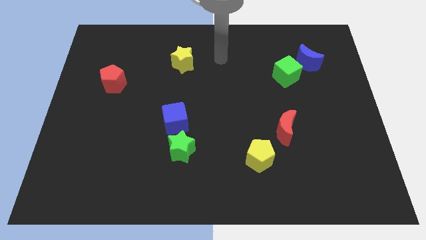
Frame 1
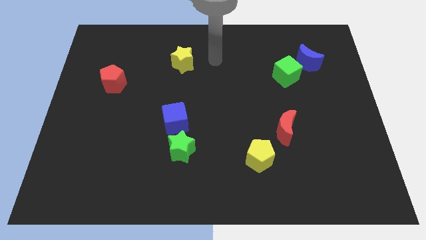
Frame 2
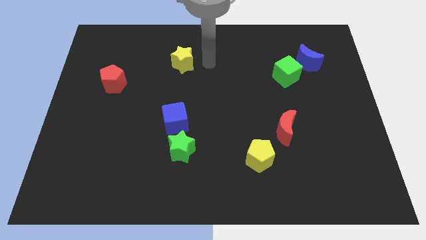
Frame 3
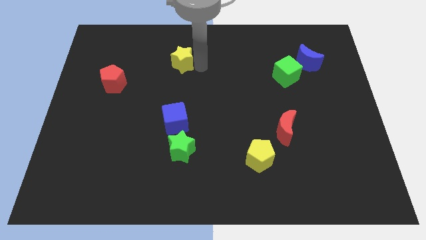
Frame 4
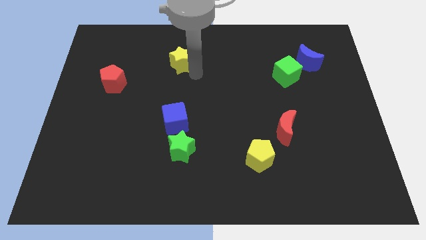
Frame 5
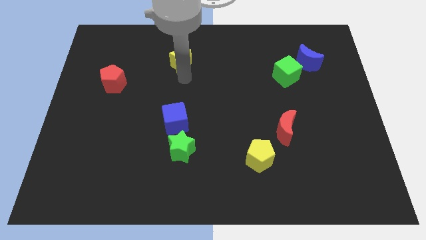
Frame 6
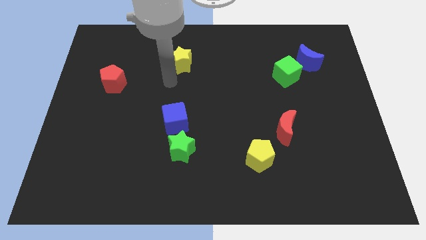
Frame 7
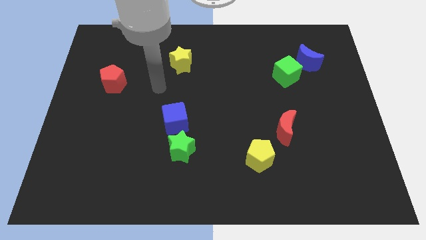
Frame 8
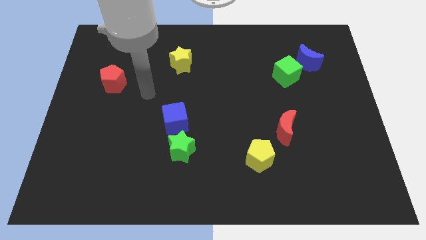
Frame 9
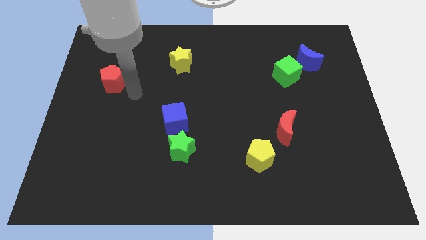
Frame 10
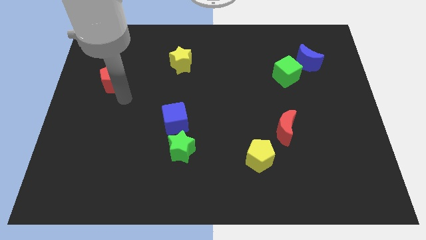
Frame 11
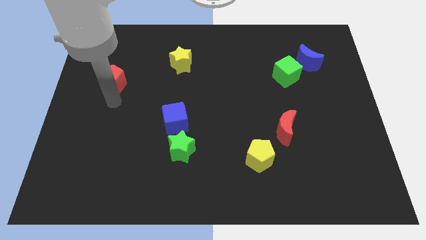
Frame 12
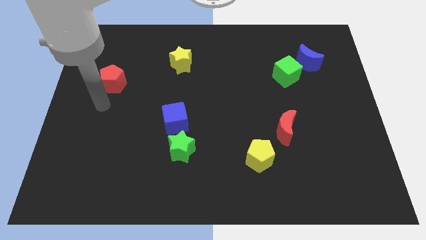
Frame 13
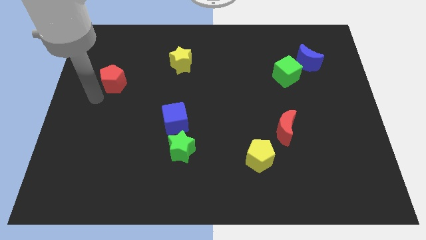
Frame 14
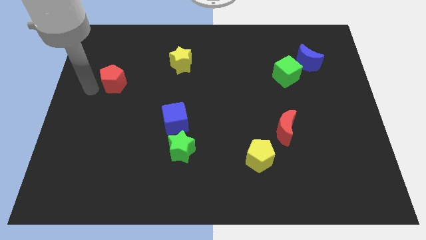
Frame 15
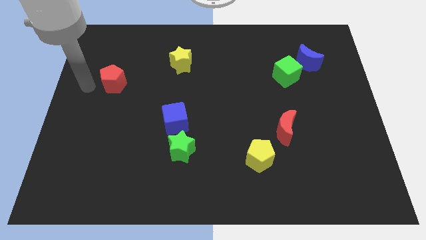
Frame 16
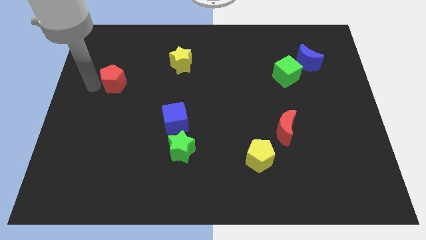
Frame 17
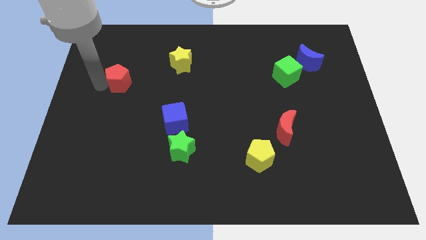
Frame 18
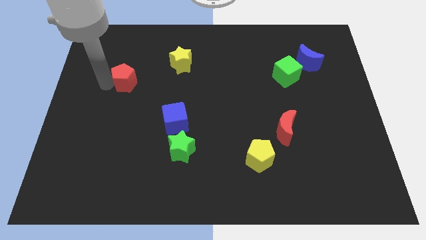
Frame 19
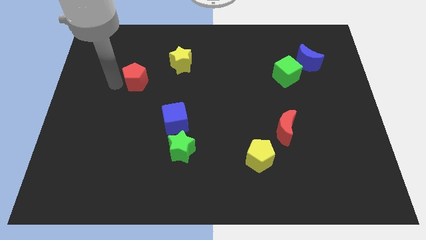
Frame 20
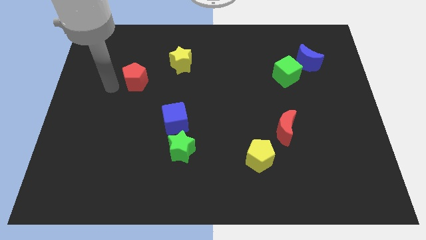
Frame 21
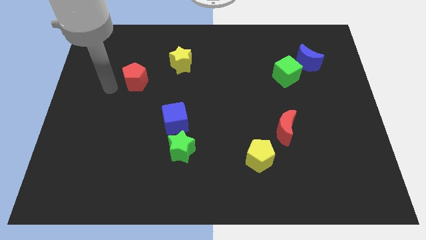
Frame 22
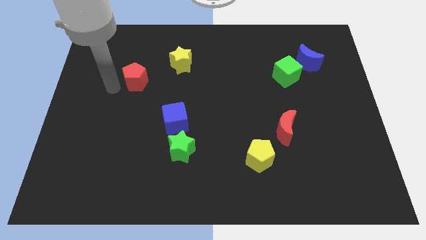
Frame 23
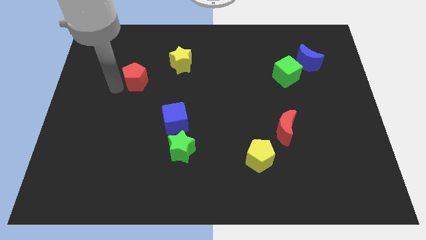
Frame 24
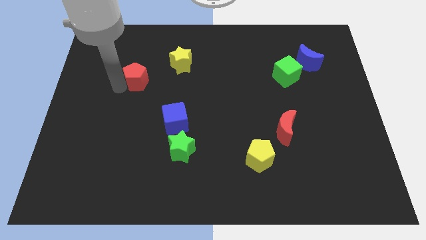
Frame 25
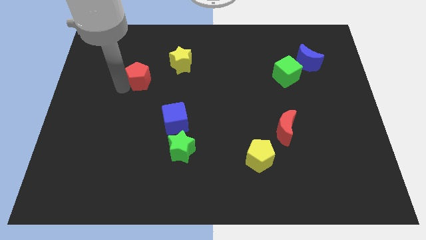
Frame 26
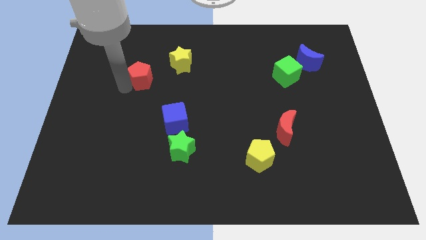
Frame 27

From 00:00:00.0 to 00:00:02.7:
slide the red pentagon right a little

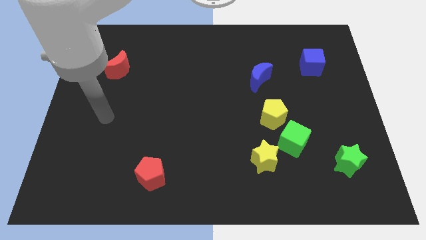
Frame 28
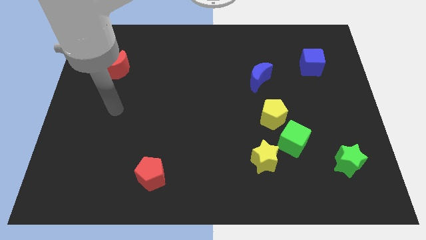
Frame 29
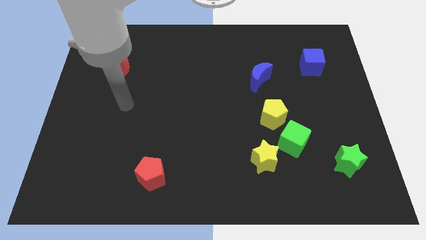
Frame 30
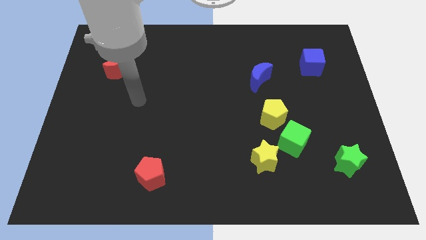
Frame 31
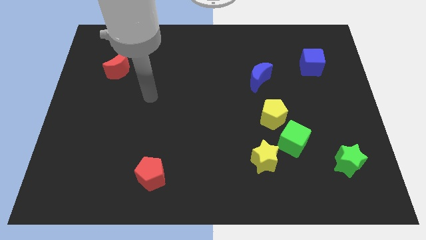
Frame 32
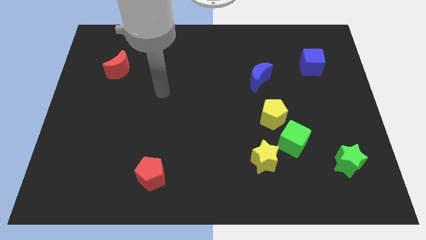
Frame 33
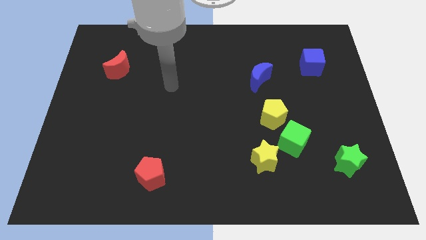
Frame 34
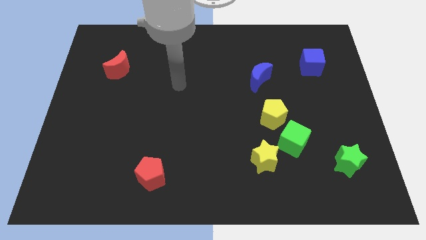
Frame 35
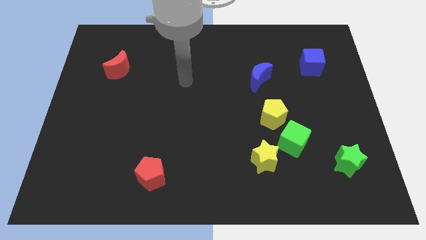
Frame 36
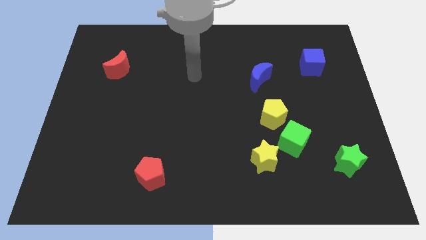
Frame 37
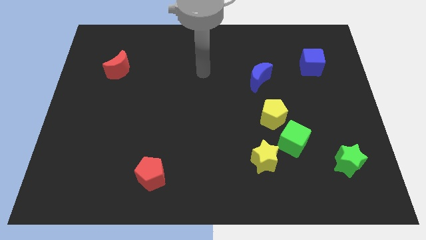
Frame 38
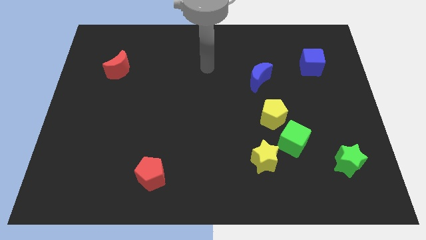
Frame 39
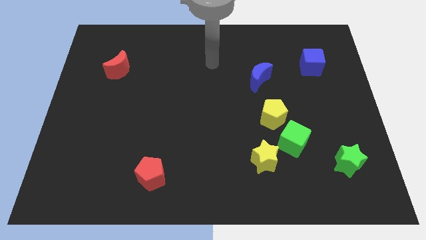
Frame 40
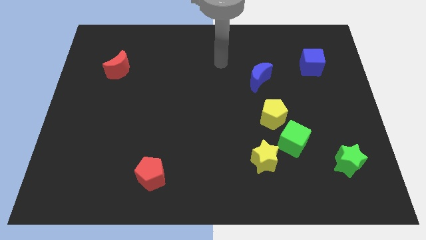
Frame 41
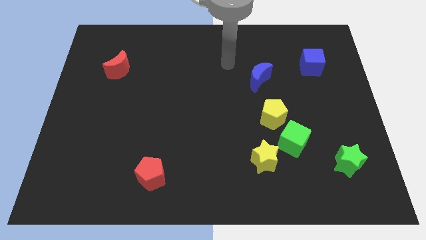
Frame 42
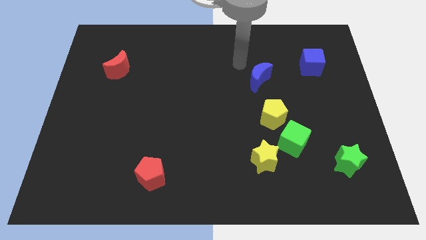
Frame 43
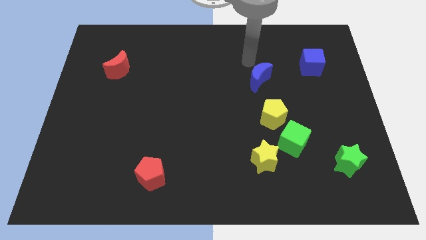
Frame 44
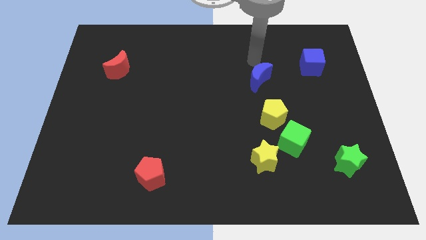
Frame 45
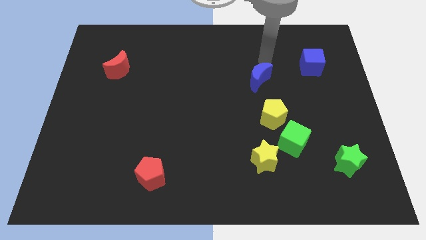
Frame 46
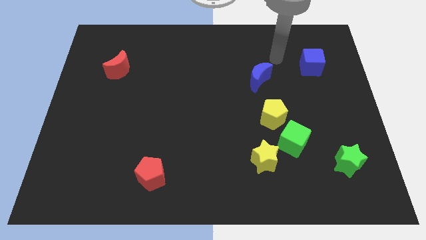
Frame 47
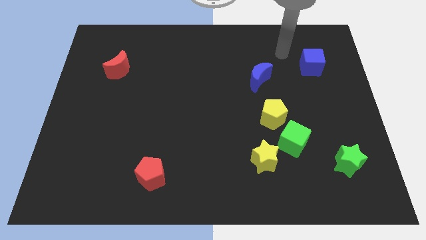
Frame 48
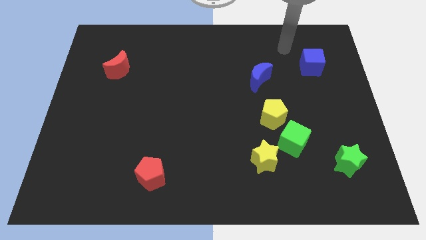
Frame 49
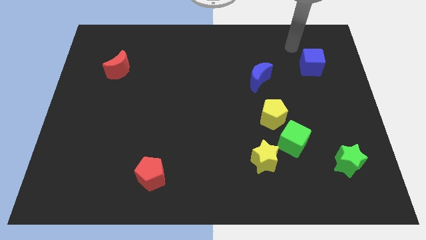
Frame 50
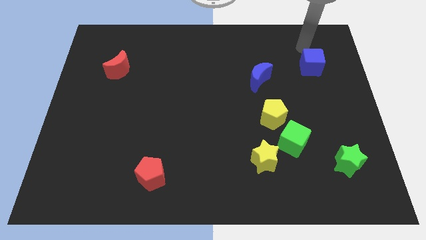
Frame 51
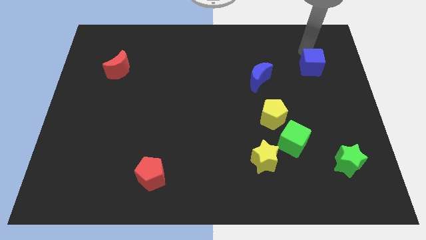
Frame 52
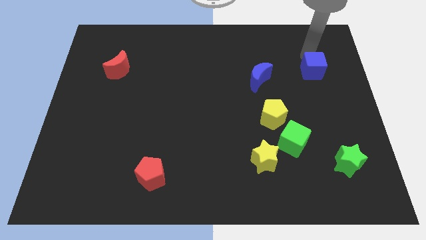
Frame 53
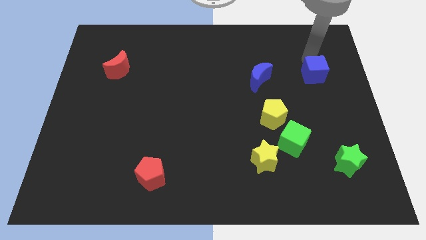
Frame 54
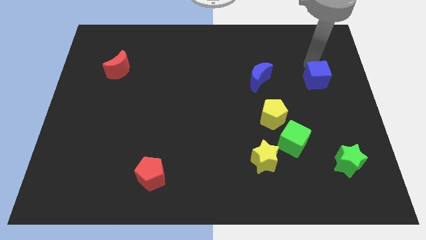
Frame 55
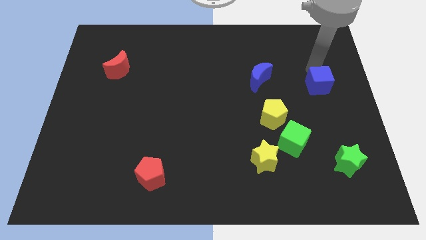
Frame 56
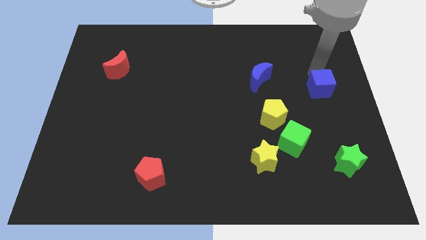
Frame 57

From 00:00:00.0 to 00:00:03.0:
push the blue cube slightly downwards

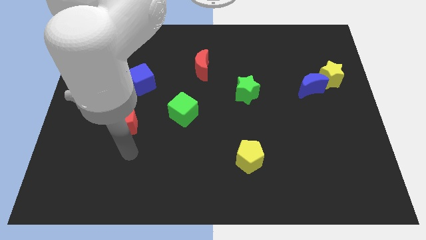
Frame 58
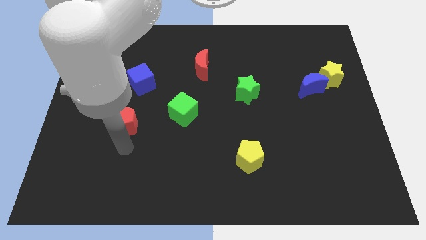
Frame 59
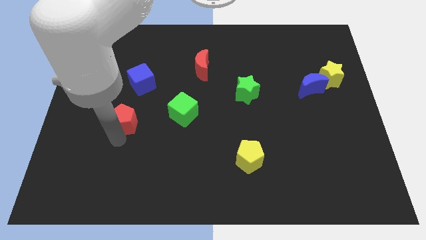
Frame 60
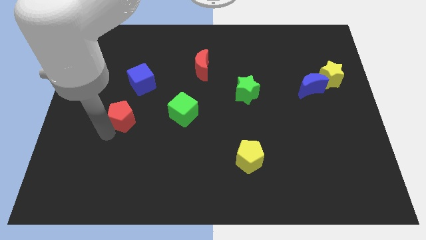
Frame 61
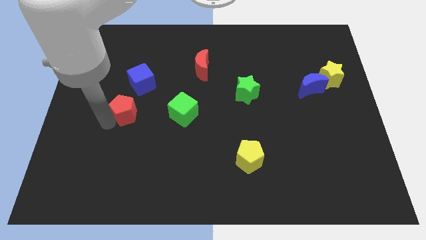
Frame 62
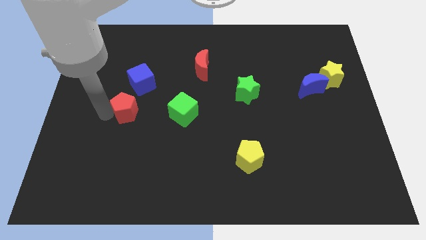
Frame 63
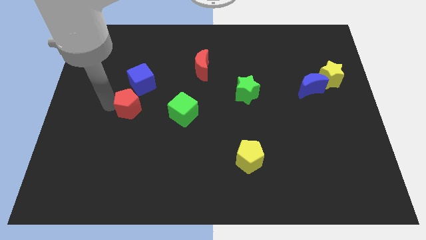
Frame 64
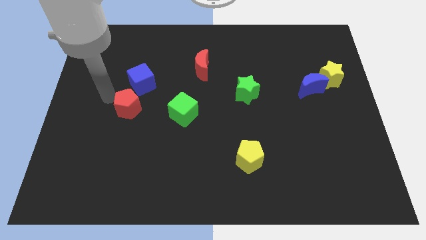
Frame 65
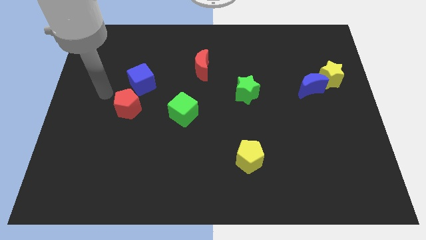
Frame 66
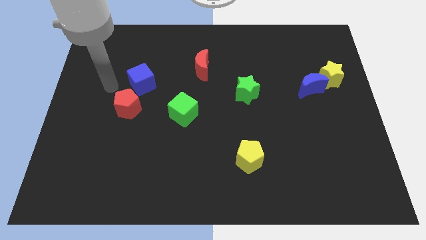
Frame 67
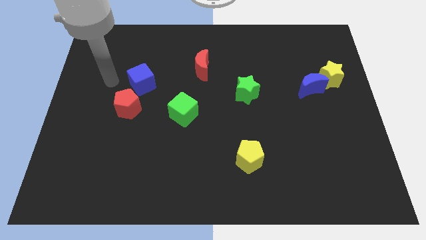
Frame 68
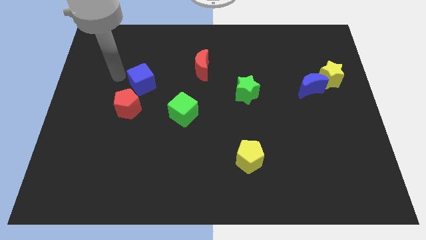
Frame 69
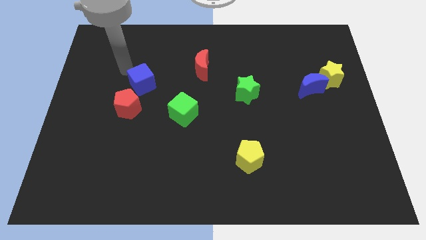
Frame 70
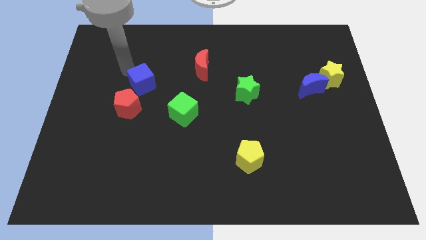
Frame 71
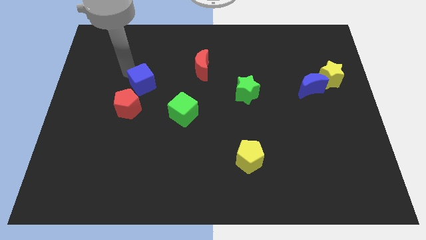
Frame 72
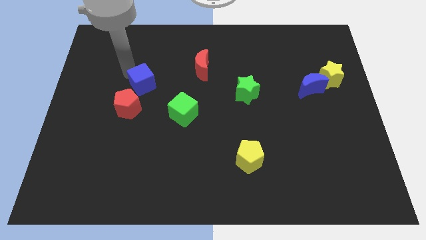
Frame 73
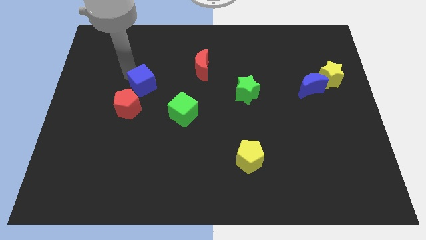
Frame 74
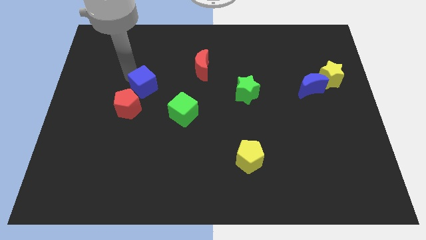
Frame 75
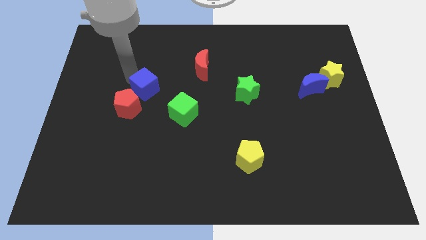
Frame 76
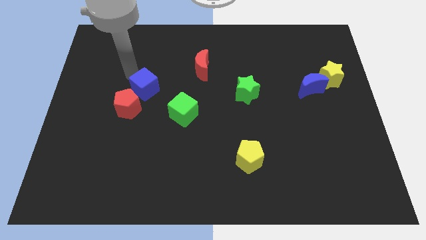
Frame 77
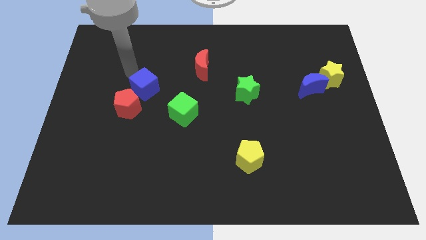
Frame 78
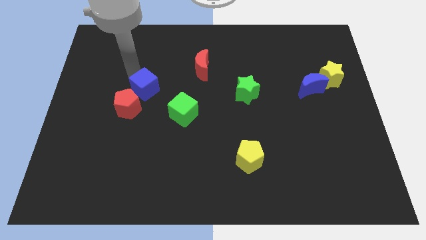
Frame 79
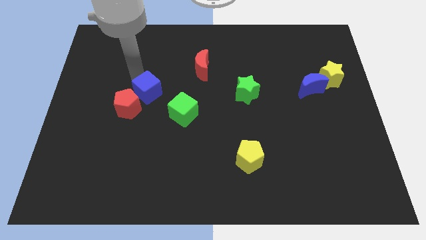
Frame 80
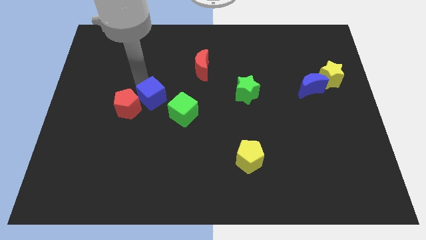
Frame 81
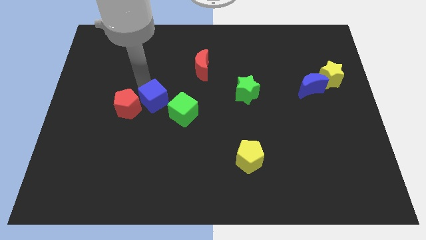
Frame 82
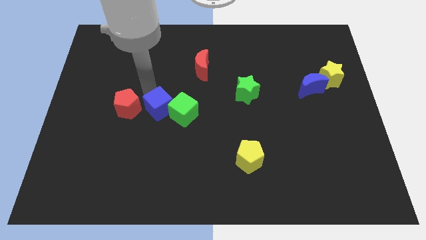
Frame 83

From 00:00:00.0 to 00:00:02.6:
slightly push the blue cube diagonally down and to the right
